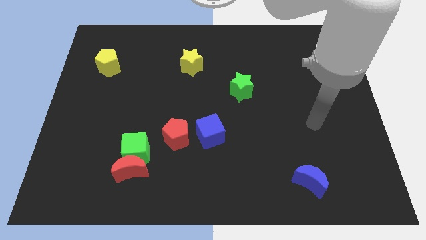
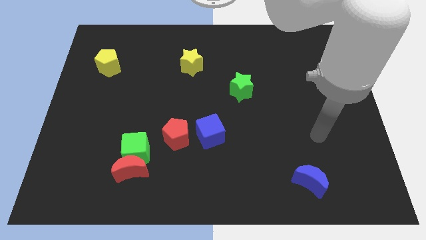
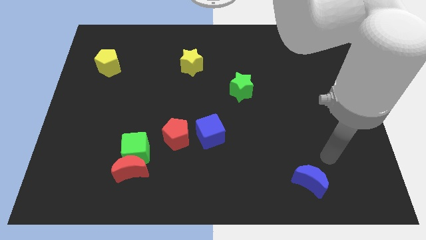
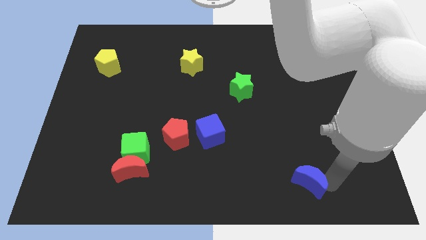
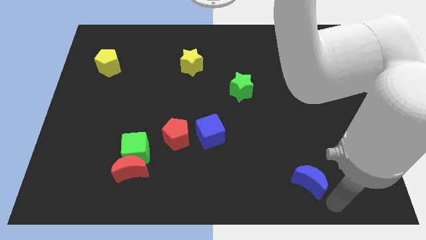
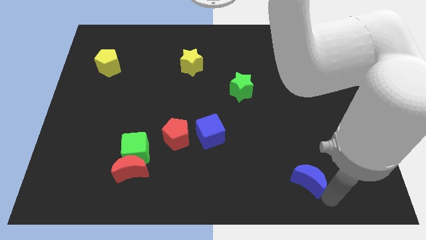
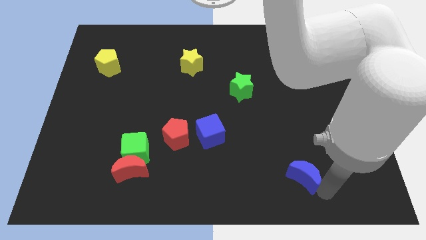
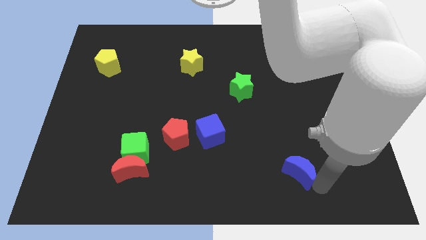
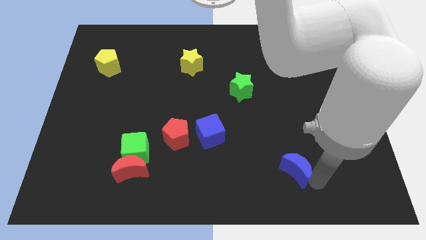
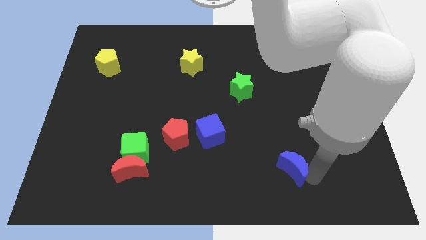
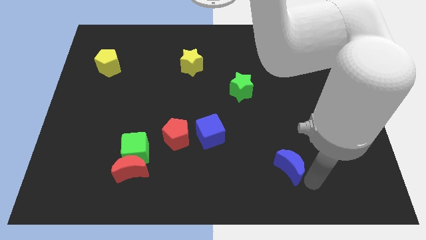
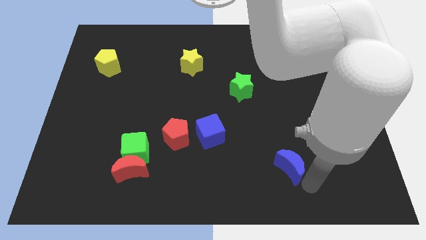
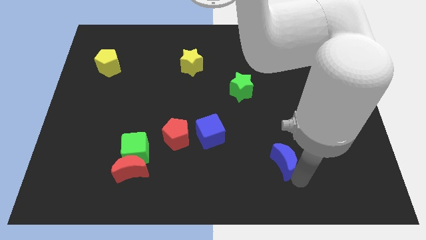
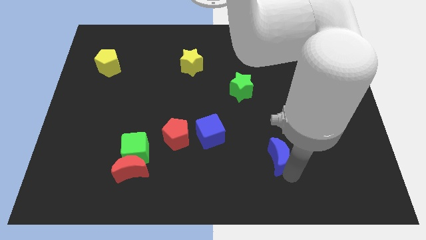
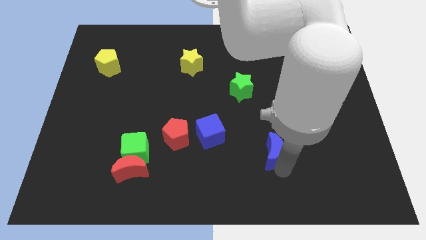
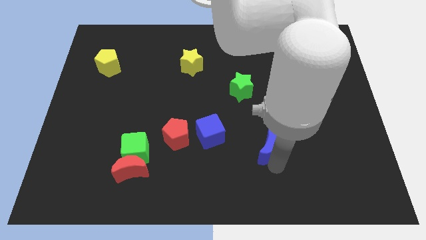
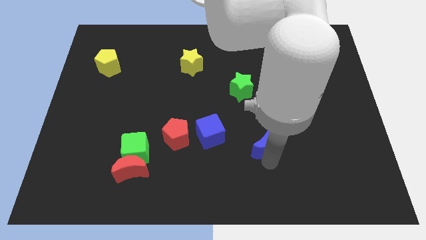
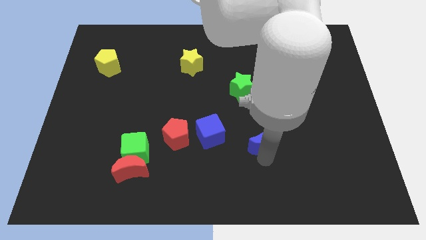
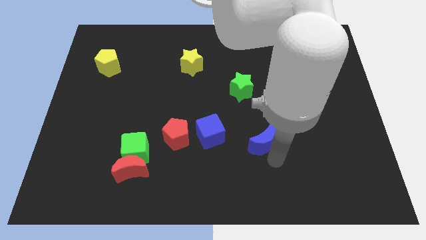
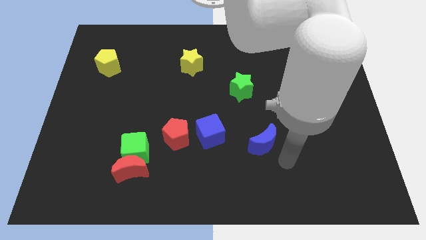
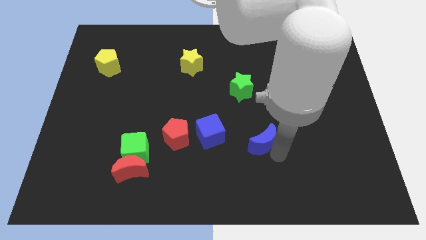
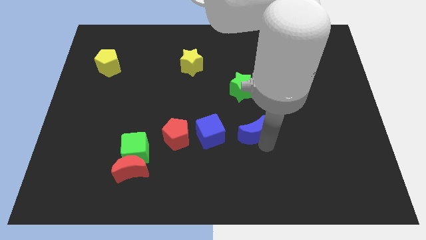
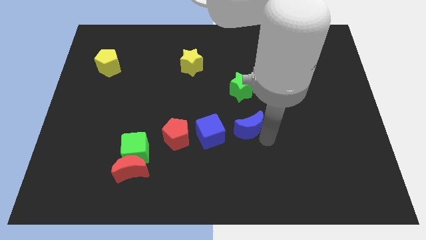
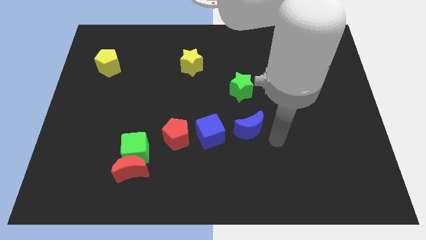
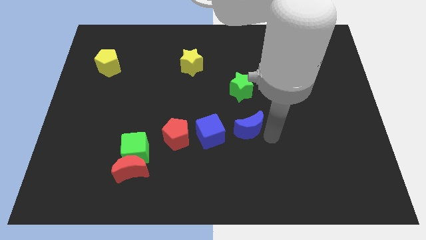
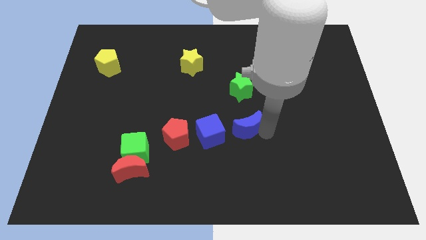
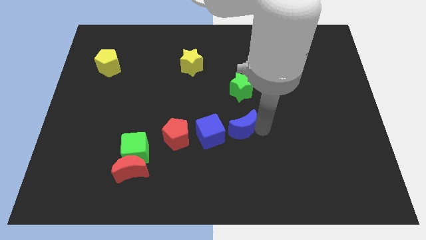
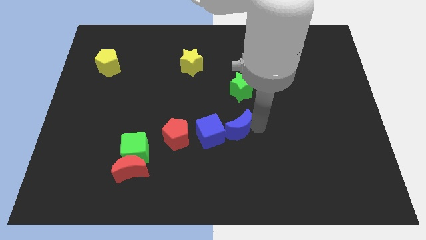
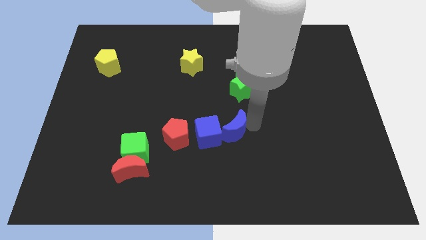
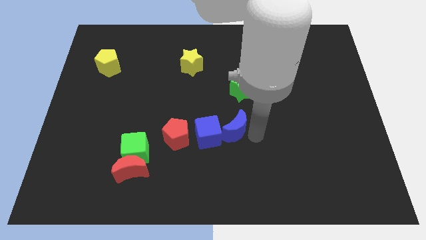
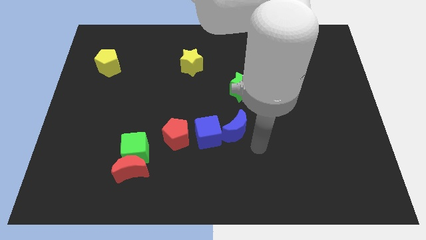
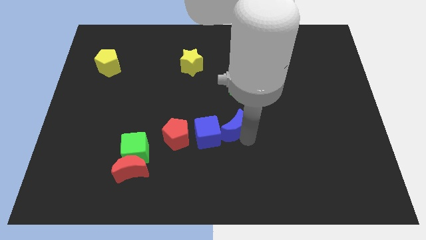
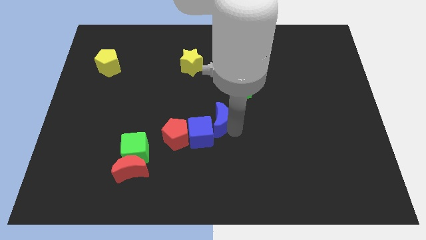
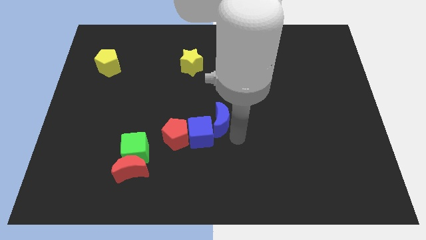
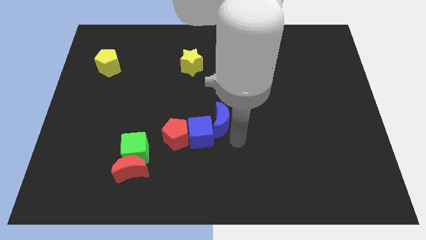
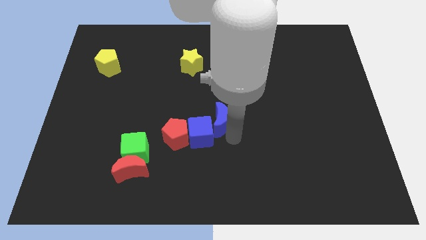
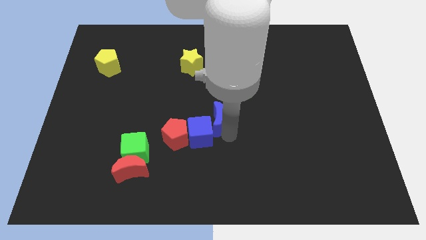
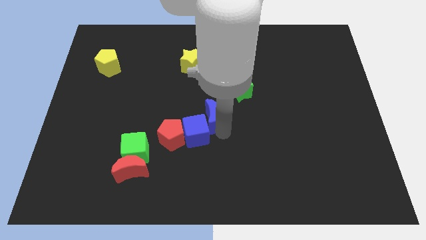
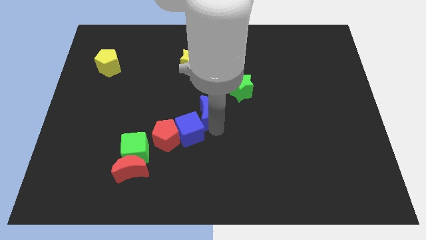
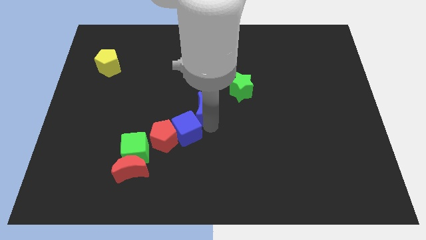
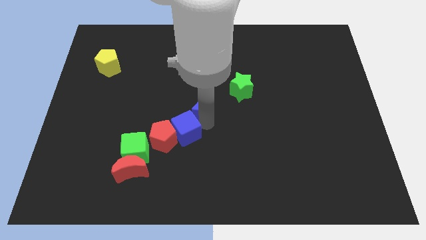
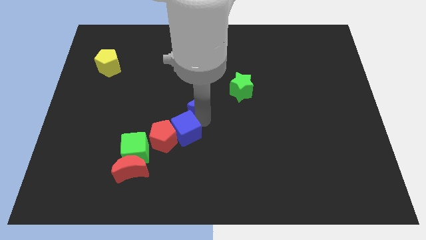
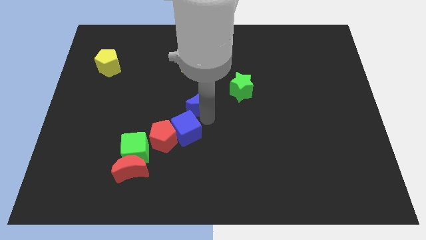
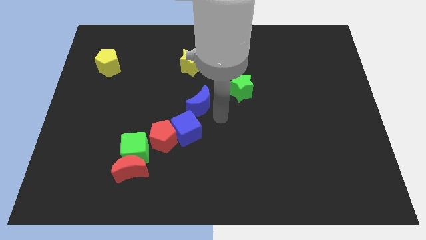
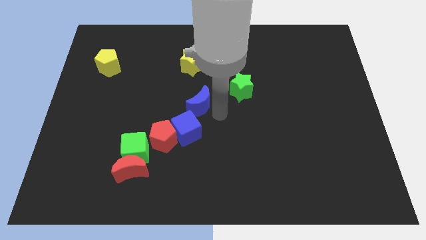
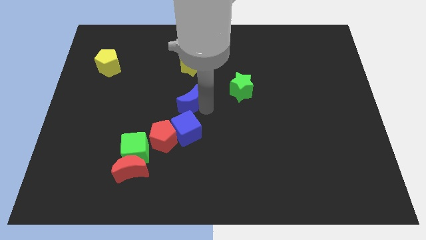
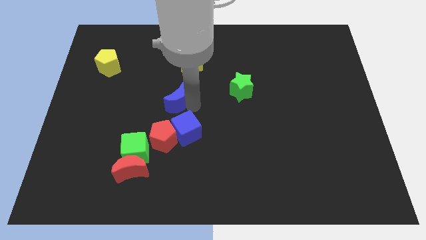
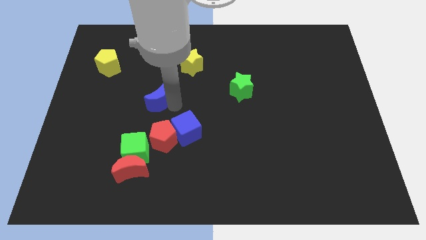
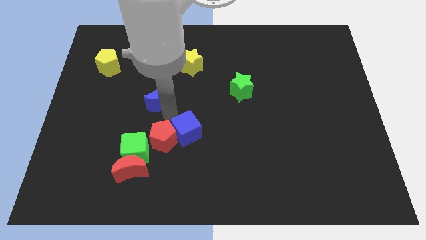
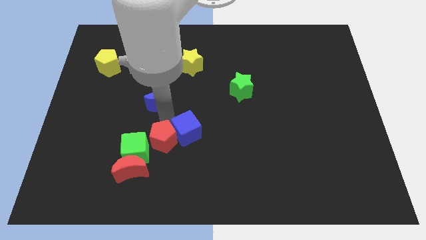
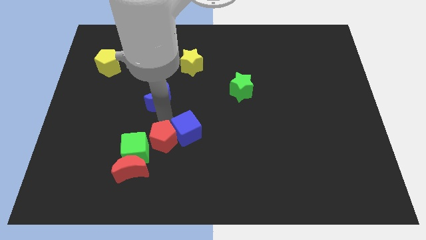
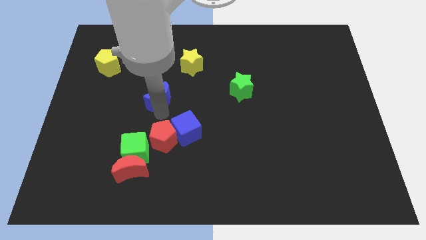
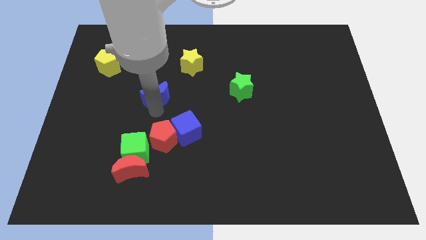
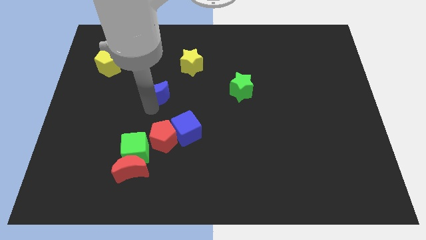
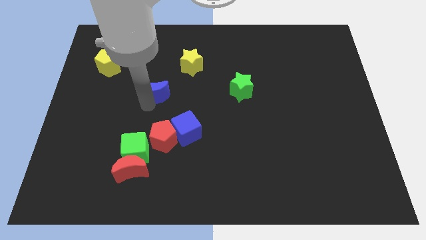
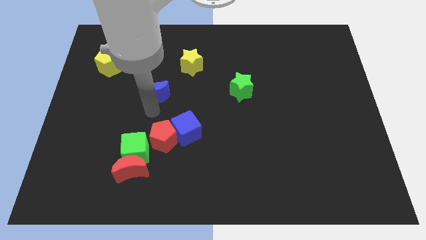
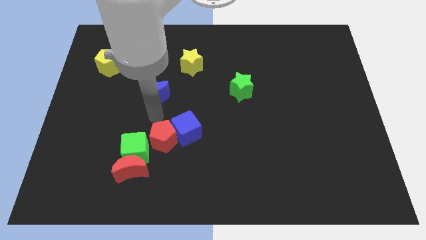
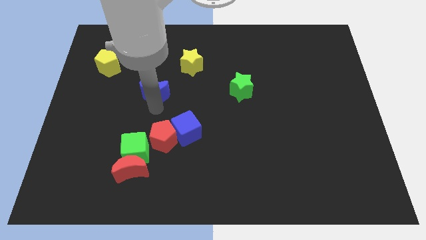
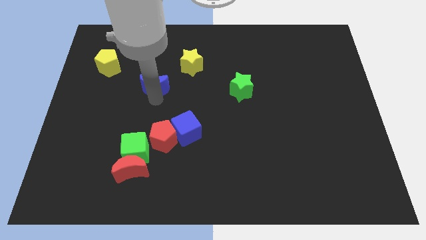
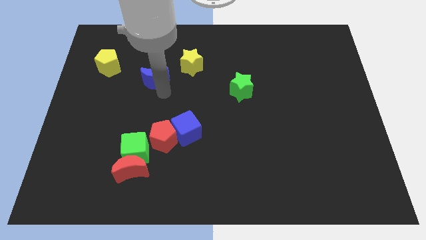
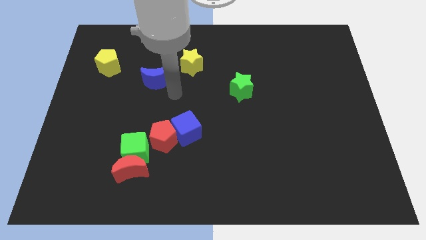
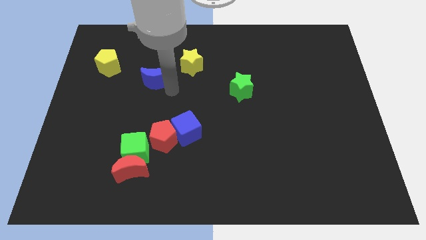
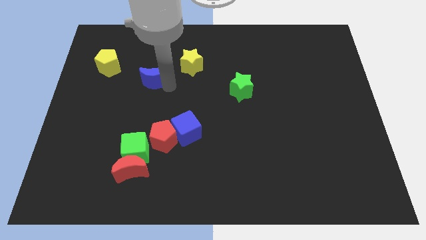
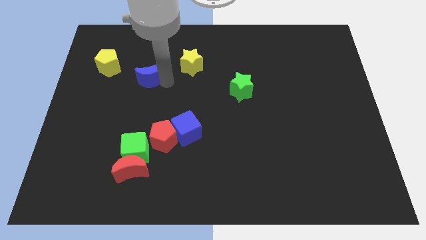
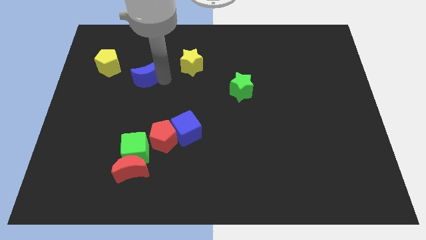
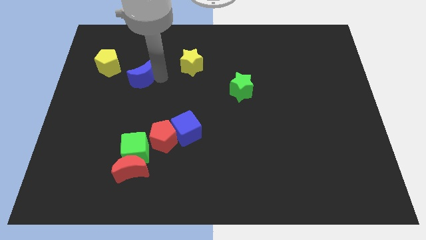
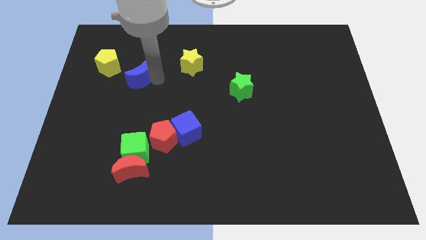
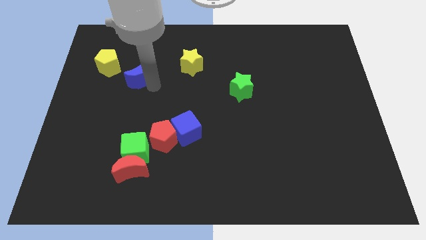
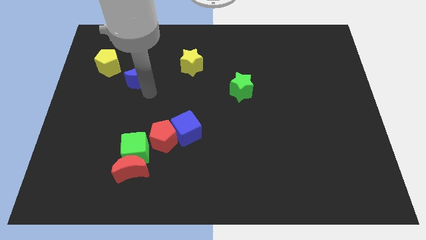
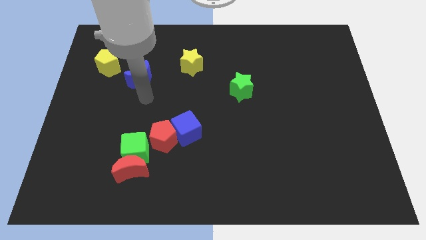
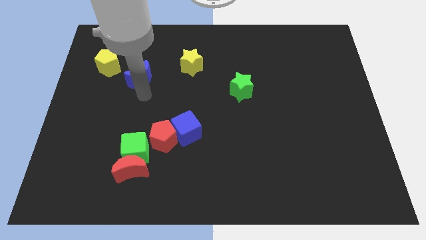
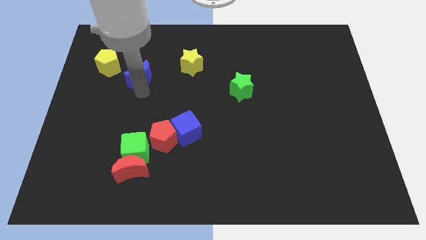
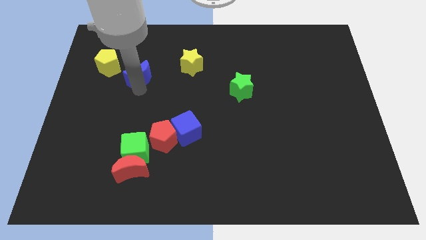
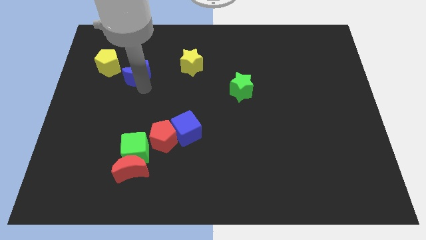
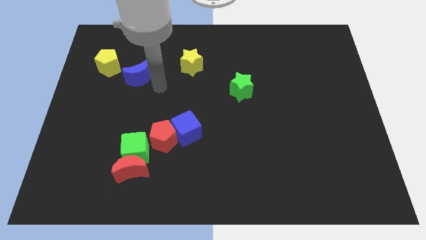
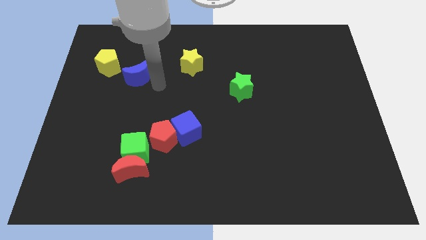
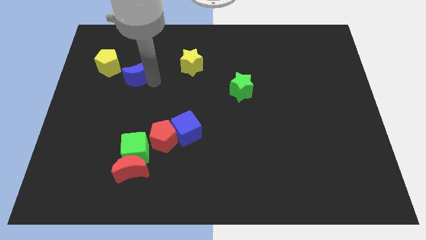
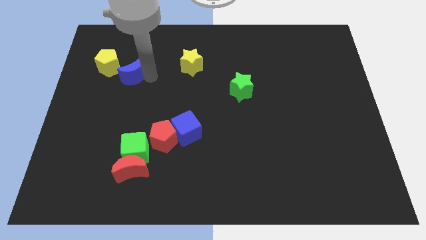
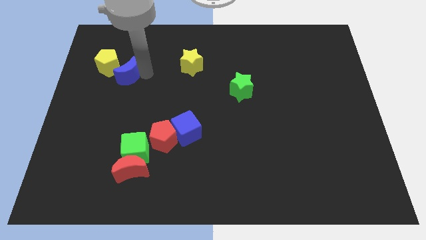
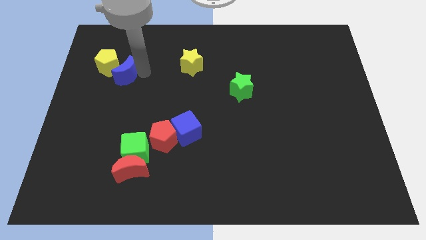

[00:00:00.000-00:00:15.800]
push the blue moon next to the yellow pentagon

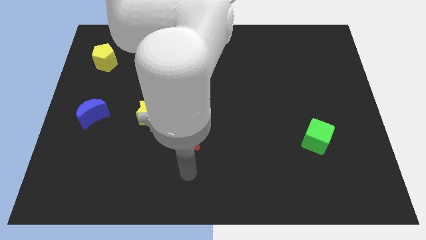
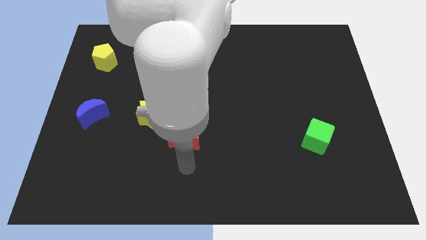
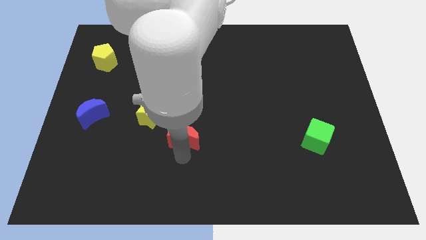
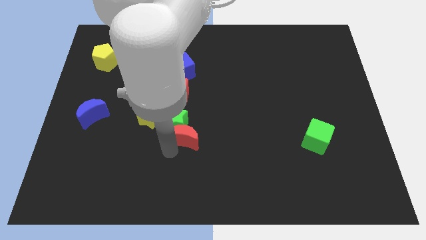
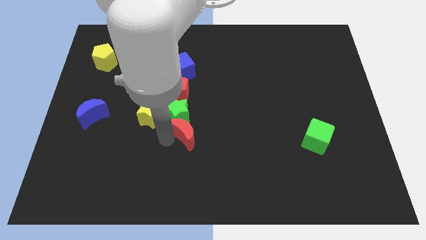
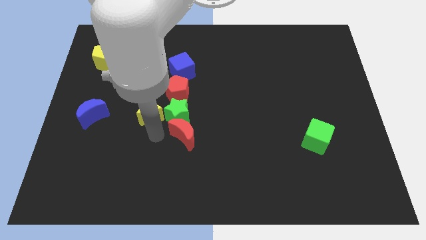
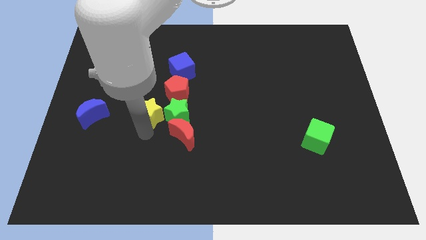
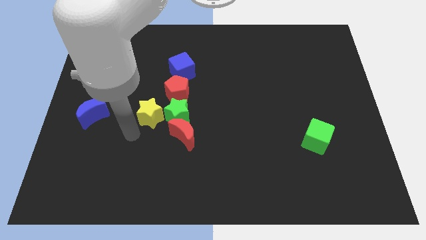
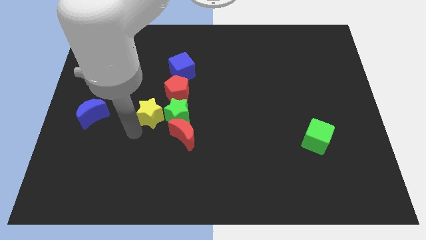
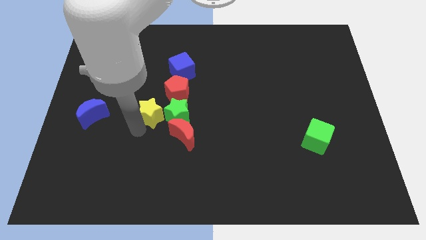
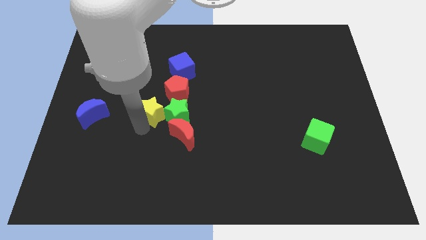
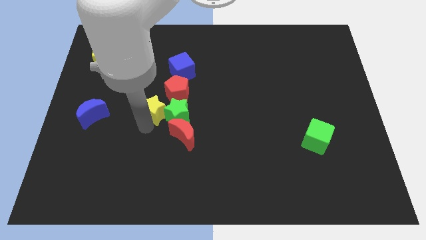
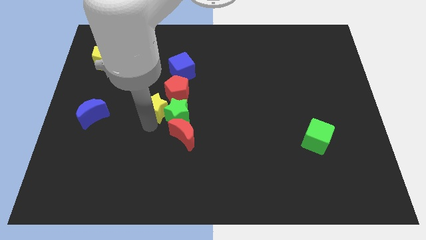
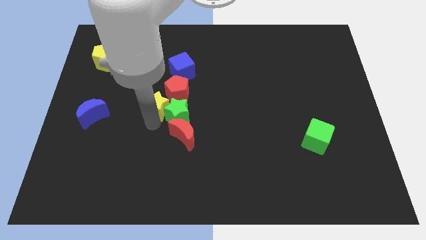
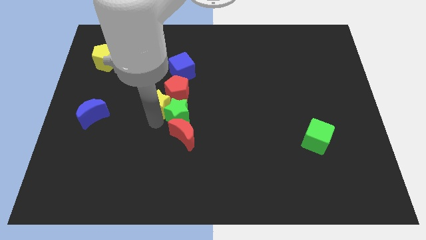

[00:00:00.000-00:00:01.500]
slide the yellow star next to the red pentagon
